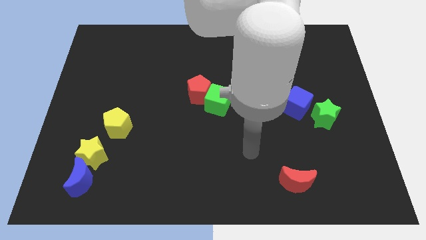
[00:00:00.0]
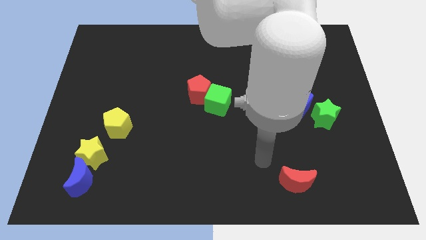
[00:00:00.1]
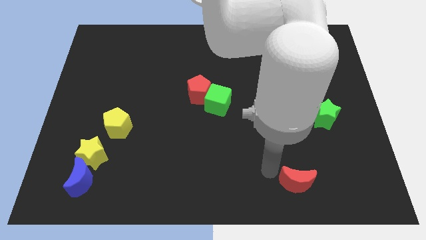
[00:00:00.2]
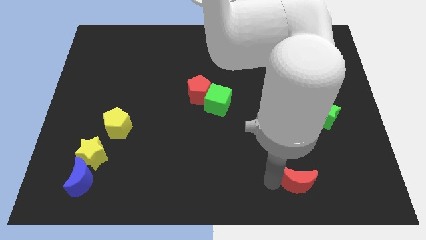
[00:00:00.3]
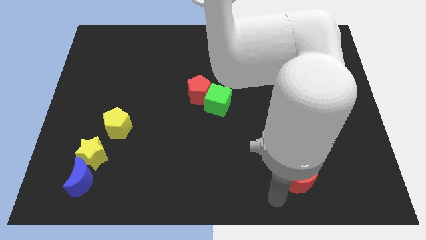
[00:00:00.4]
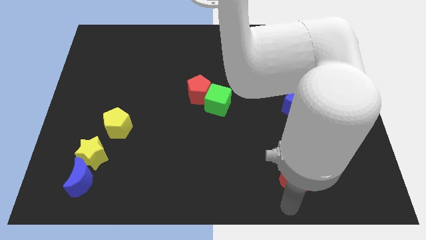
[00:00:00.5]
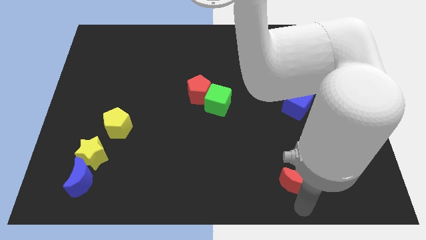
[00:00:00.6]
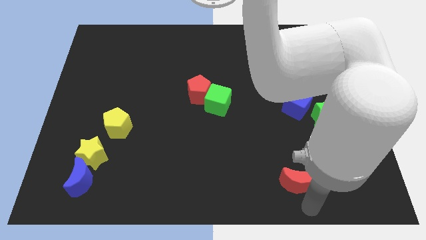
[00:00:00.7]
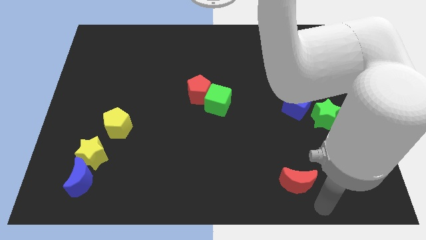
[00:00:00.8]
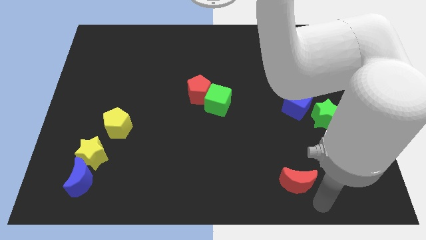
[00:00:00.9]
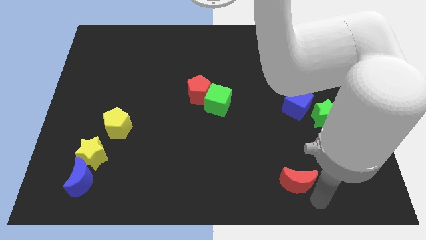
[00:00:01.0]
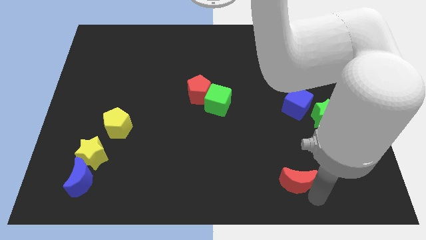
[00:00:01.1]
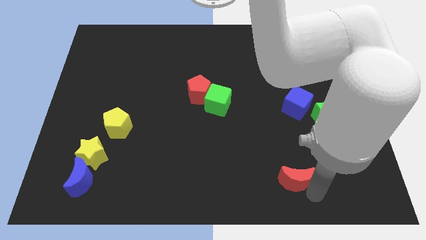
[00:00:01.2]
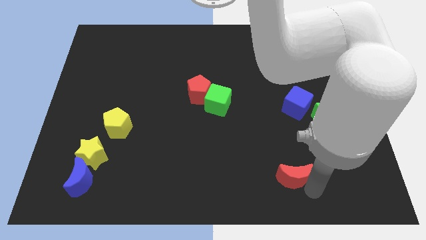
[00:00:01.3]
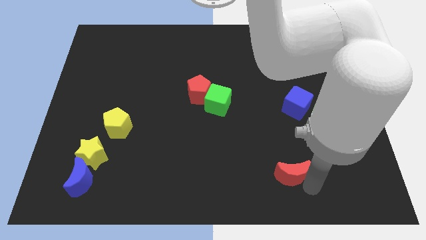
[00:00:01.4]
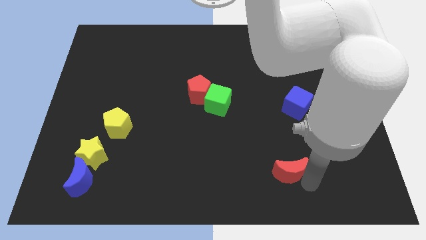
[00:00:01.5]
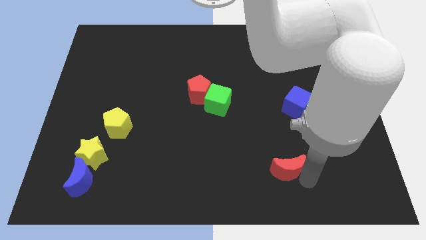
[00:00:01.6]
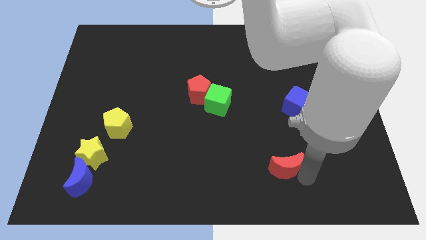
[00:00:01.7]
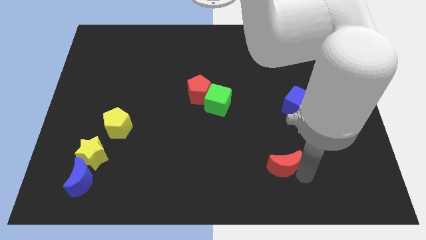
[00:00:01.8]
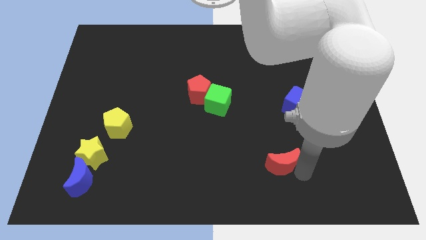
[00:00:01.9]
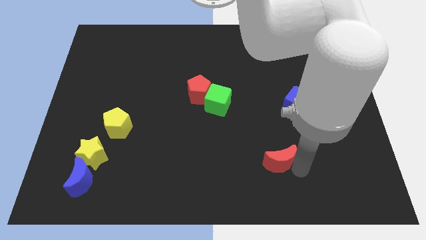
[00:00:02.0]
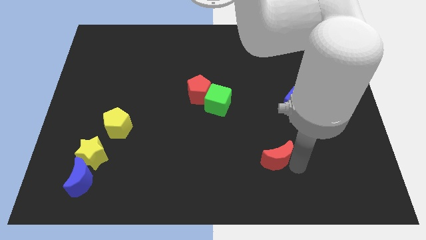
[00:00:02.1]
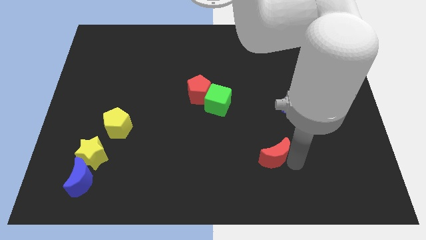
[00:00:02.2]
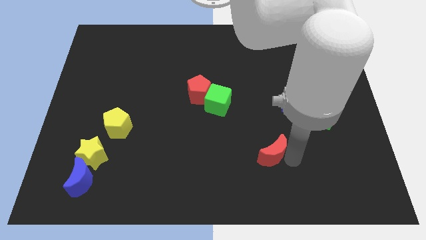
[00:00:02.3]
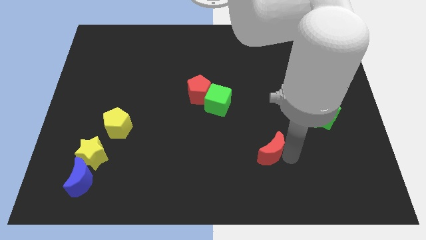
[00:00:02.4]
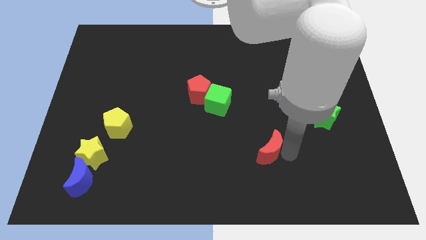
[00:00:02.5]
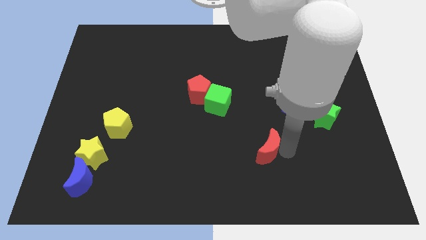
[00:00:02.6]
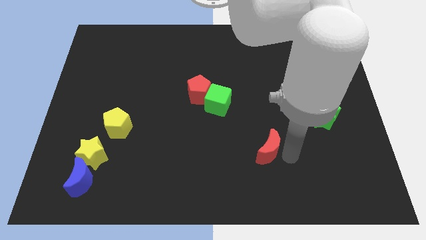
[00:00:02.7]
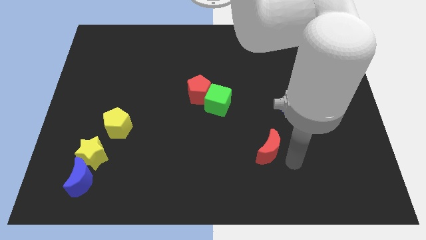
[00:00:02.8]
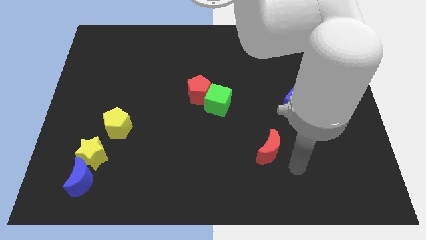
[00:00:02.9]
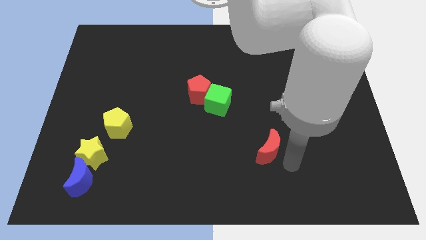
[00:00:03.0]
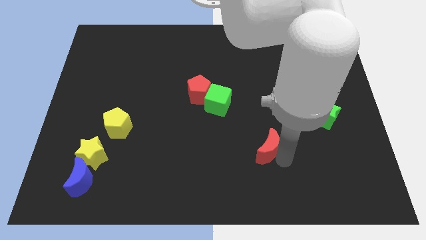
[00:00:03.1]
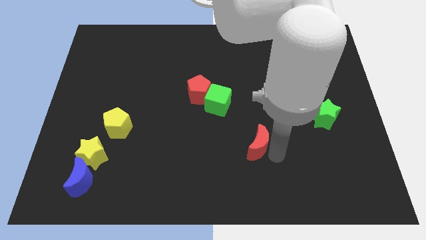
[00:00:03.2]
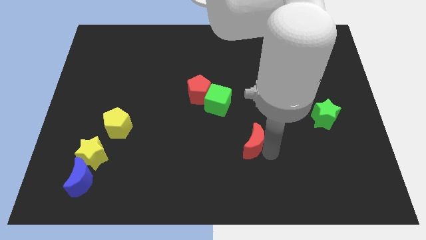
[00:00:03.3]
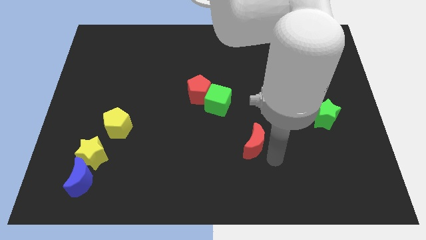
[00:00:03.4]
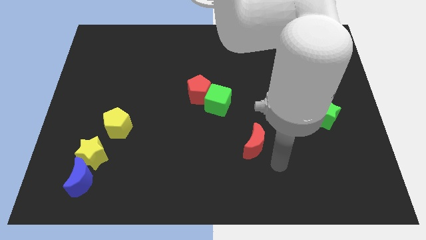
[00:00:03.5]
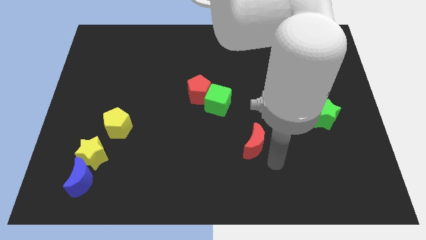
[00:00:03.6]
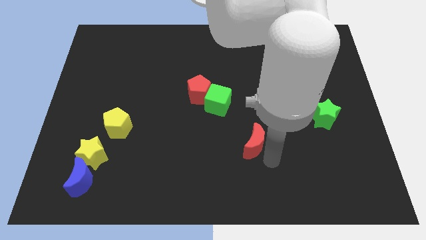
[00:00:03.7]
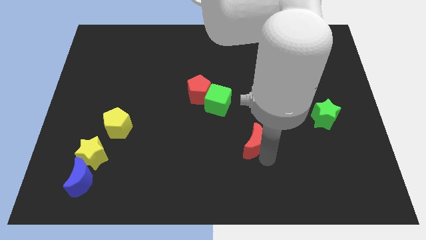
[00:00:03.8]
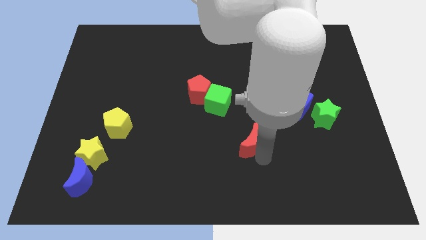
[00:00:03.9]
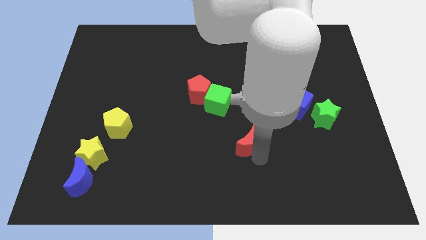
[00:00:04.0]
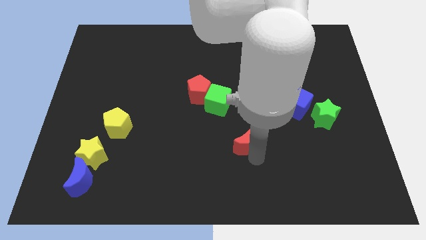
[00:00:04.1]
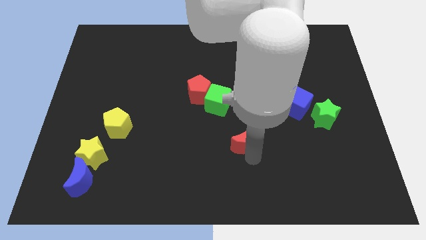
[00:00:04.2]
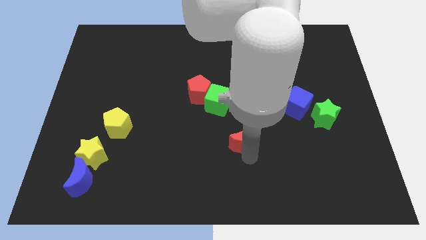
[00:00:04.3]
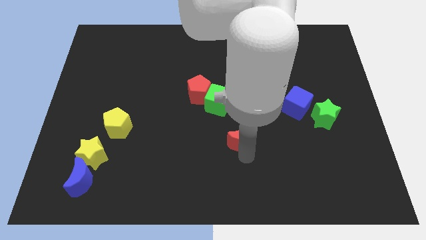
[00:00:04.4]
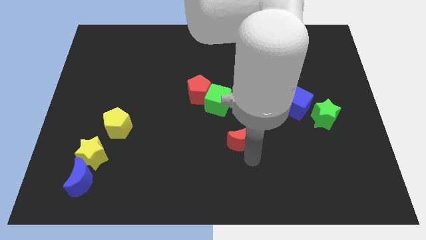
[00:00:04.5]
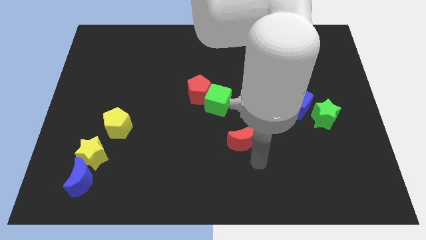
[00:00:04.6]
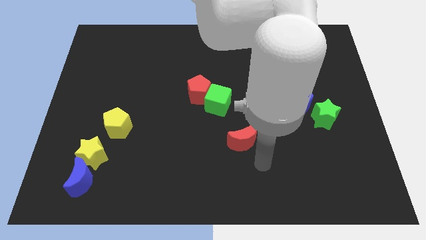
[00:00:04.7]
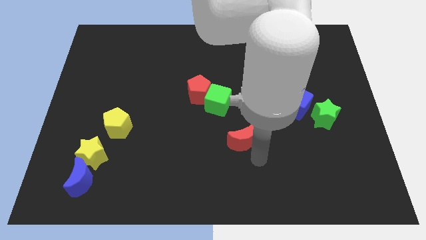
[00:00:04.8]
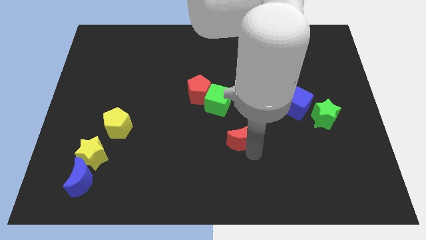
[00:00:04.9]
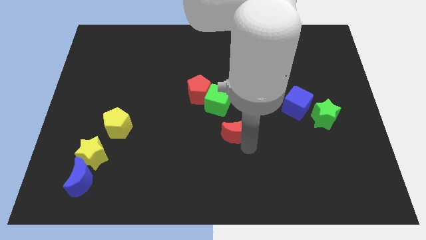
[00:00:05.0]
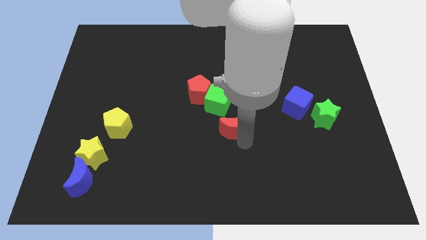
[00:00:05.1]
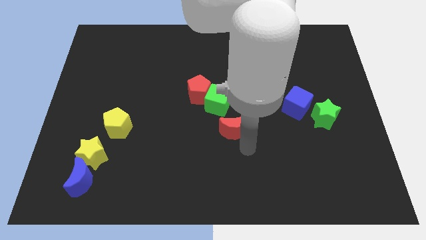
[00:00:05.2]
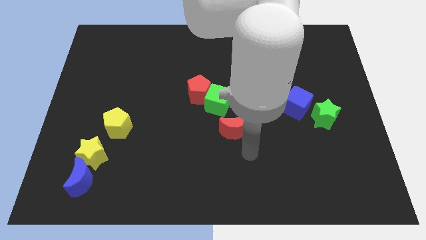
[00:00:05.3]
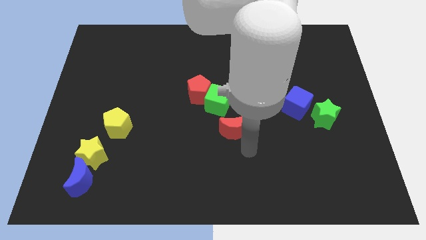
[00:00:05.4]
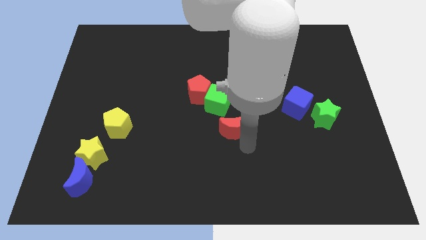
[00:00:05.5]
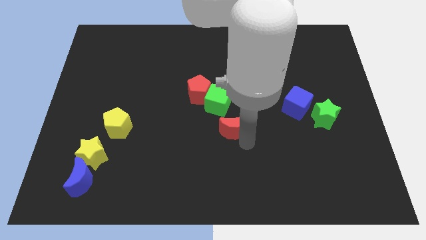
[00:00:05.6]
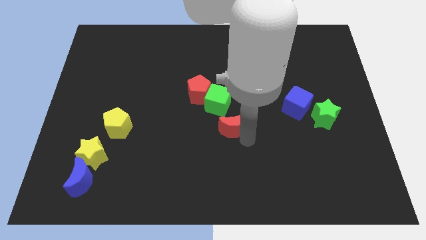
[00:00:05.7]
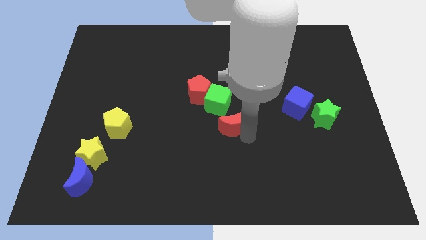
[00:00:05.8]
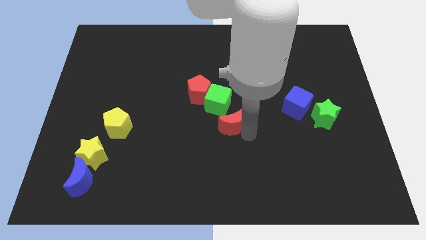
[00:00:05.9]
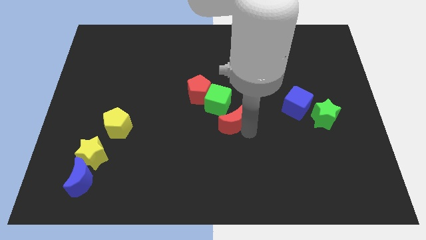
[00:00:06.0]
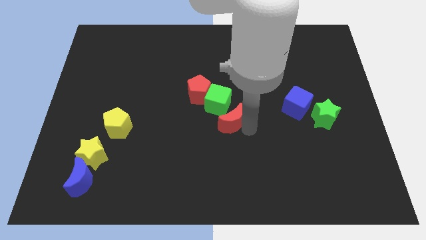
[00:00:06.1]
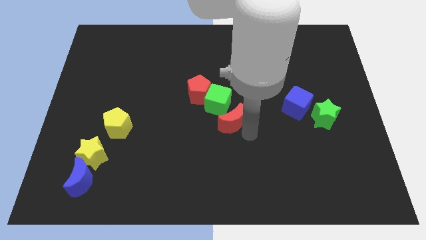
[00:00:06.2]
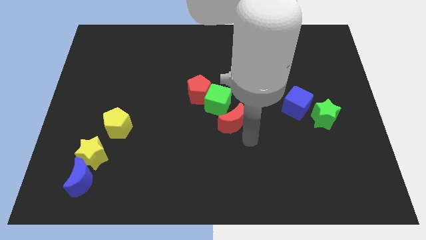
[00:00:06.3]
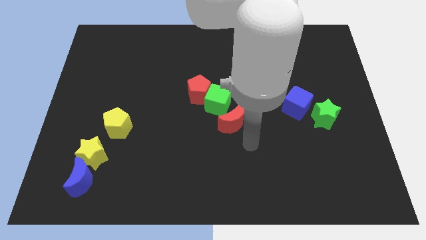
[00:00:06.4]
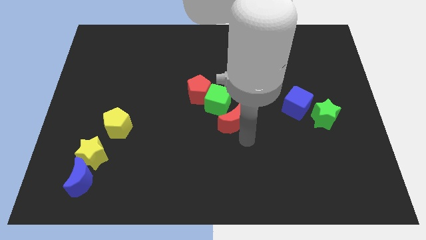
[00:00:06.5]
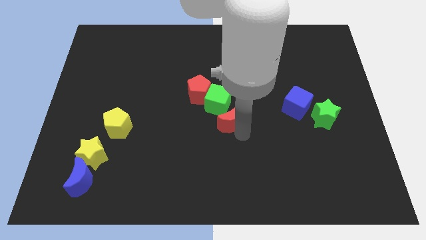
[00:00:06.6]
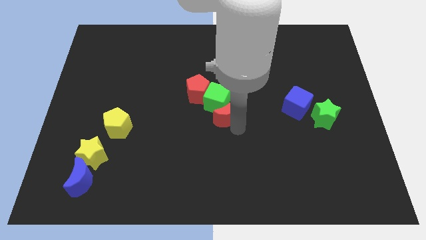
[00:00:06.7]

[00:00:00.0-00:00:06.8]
slide the red moon to the green cube
